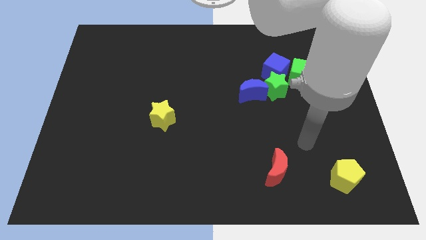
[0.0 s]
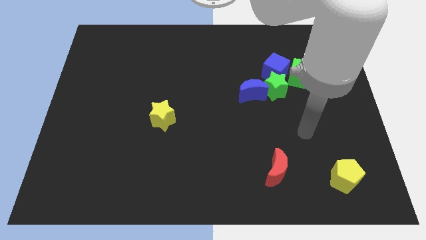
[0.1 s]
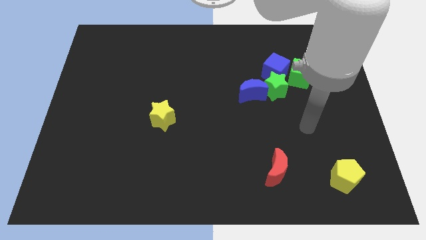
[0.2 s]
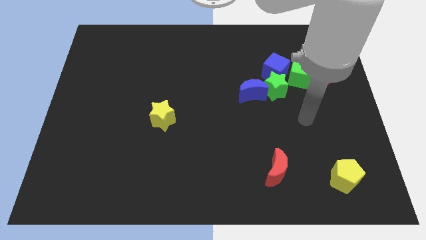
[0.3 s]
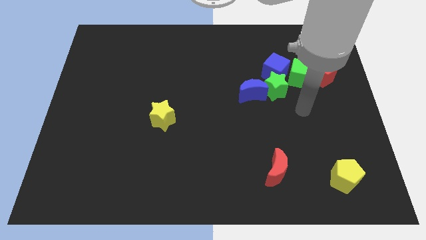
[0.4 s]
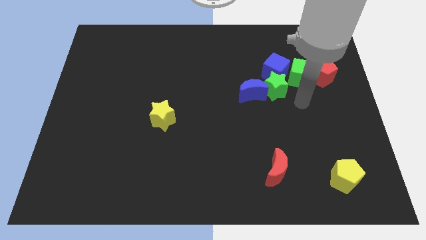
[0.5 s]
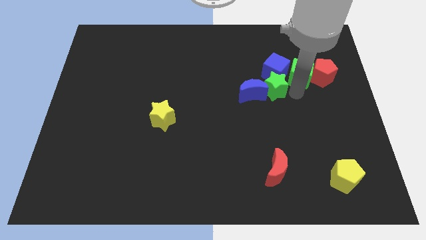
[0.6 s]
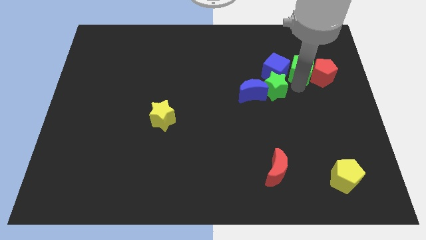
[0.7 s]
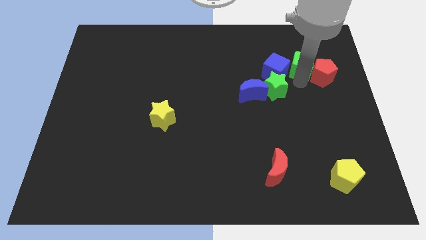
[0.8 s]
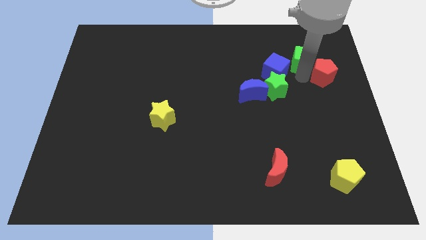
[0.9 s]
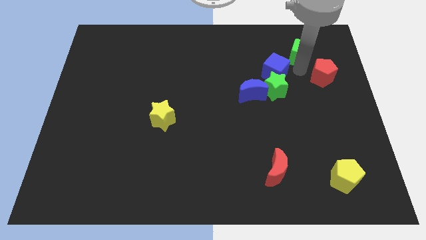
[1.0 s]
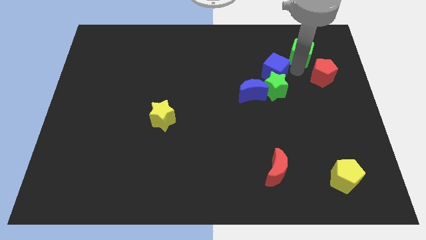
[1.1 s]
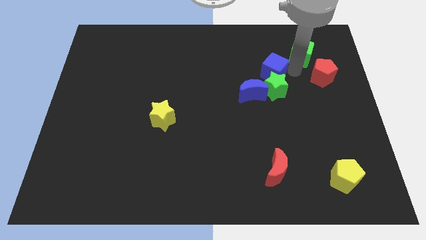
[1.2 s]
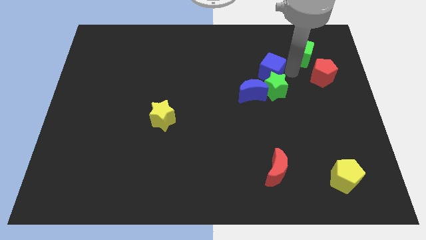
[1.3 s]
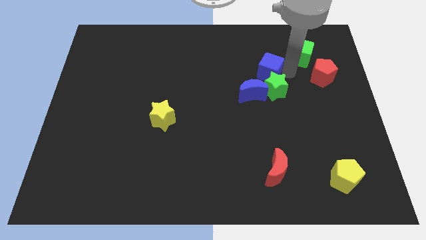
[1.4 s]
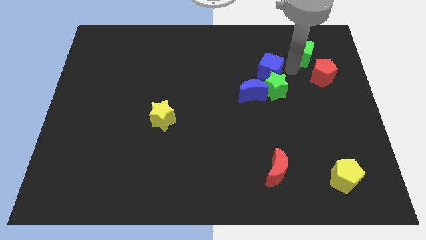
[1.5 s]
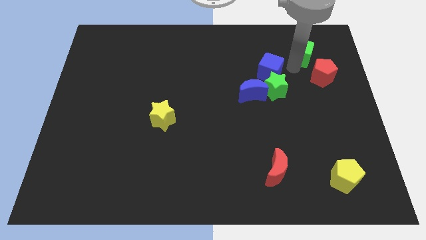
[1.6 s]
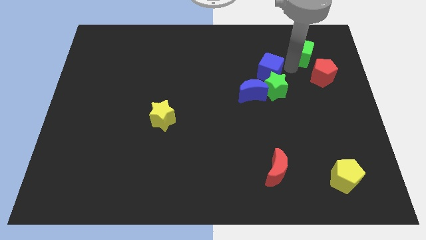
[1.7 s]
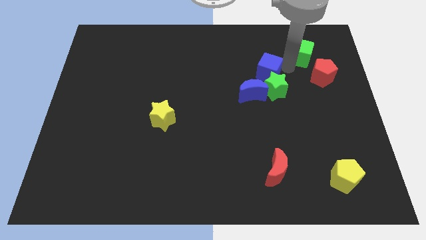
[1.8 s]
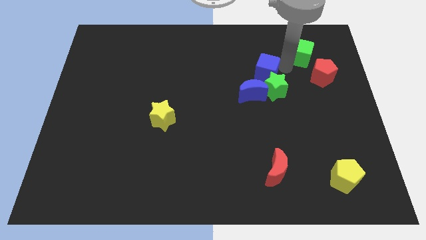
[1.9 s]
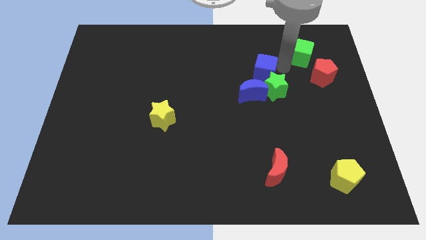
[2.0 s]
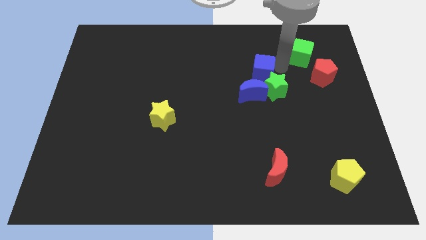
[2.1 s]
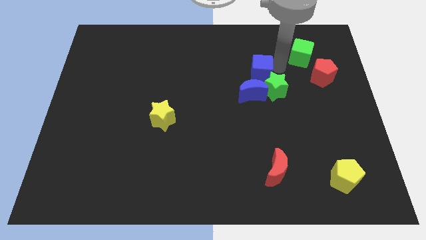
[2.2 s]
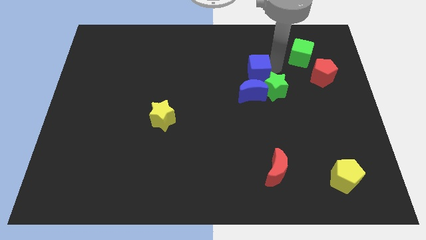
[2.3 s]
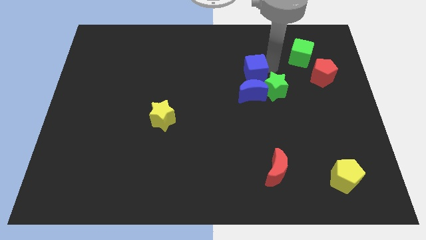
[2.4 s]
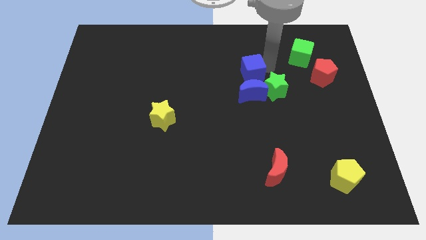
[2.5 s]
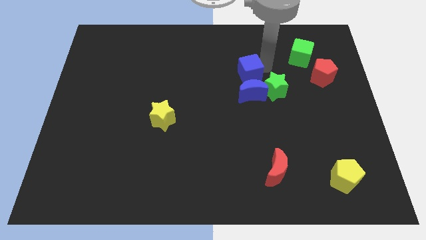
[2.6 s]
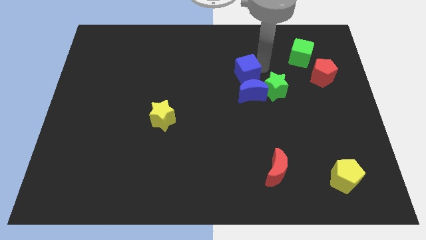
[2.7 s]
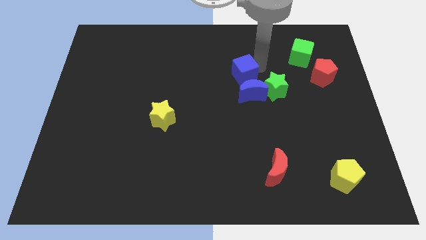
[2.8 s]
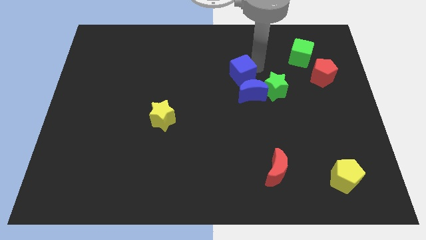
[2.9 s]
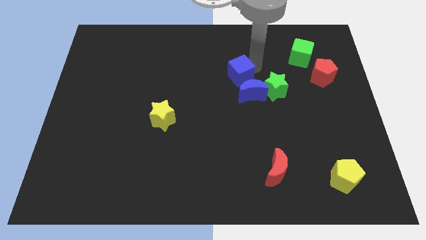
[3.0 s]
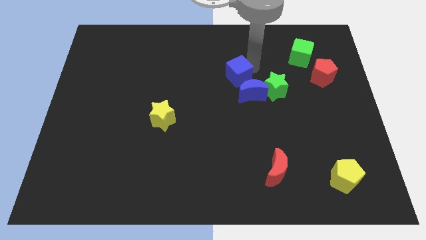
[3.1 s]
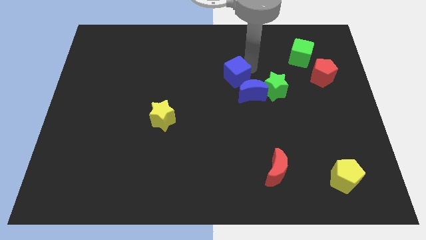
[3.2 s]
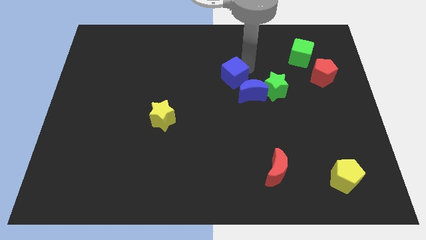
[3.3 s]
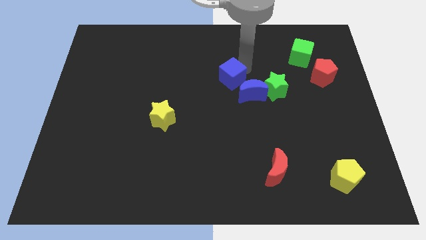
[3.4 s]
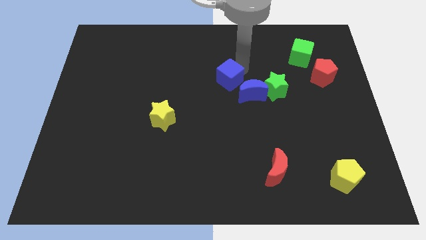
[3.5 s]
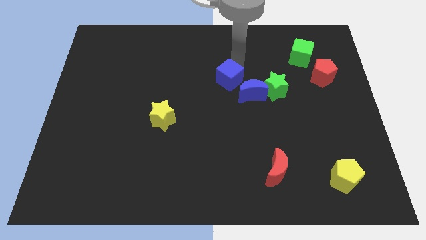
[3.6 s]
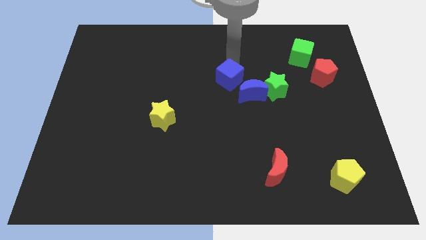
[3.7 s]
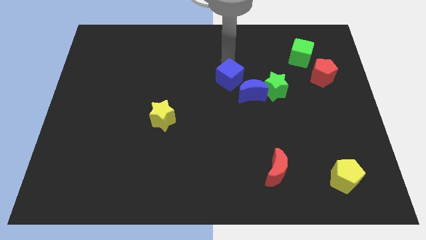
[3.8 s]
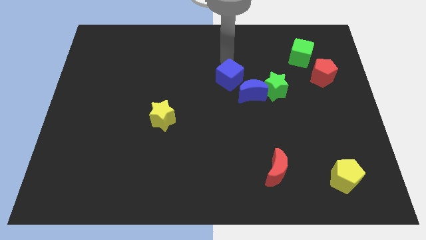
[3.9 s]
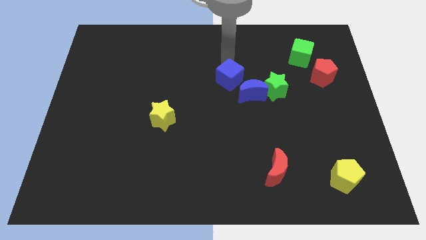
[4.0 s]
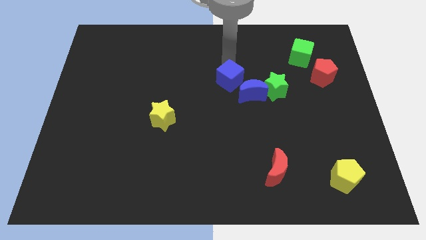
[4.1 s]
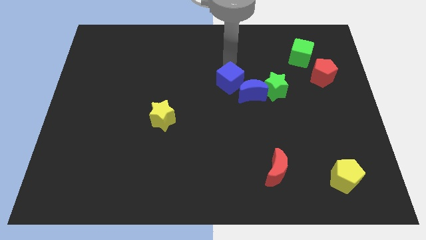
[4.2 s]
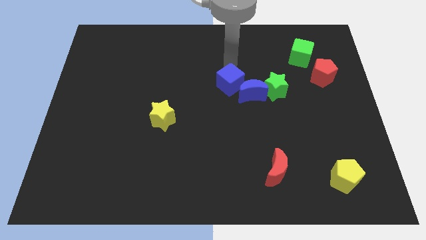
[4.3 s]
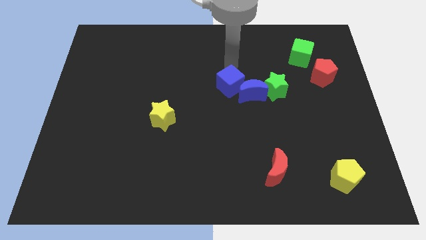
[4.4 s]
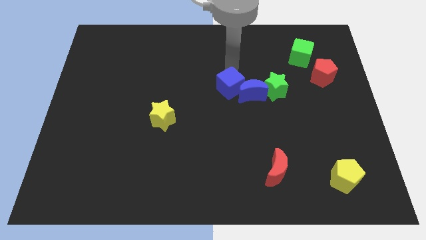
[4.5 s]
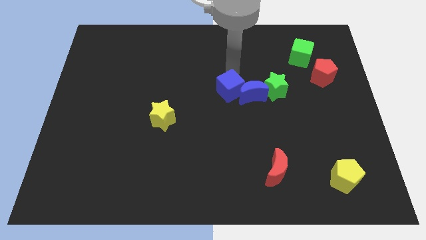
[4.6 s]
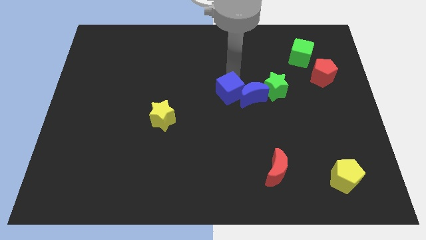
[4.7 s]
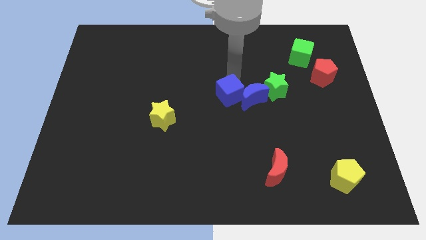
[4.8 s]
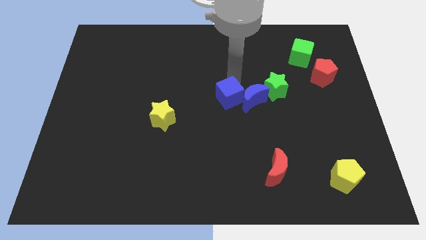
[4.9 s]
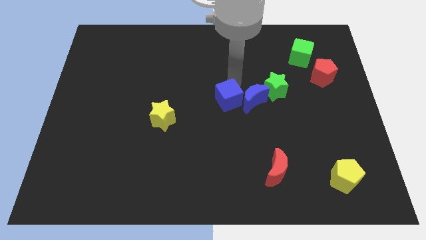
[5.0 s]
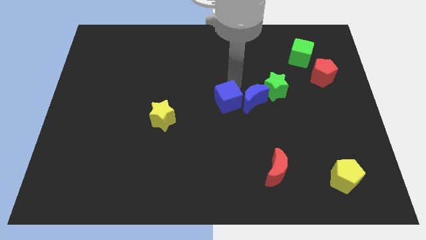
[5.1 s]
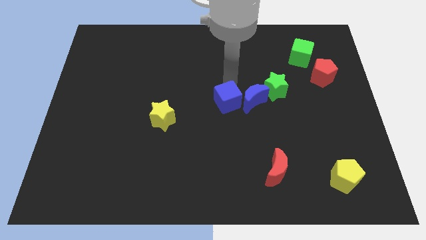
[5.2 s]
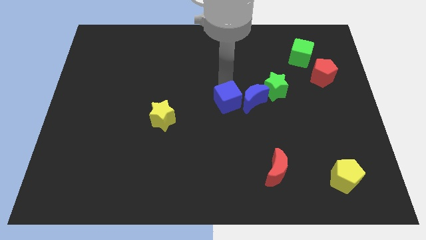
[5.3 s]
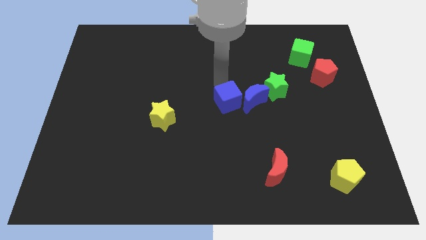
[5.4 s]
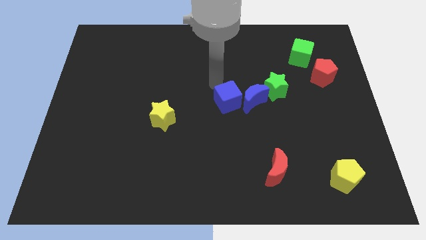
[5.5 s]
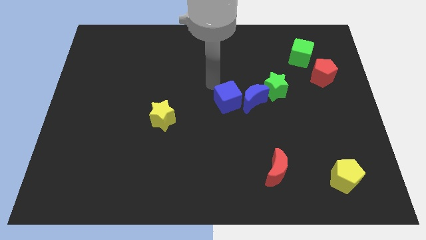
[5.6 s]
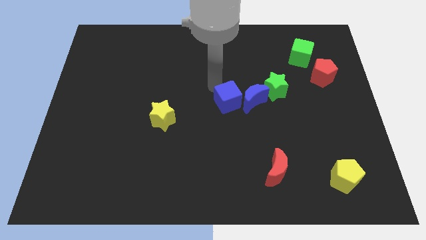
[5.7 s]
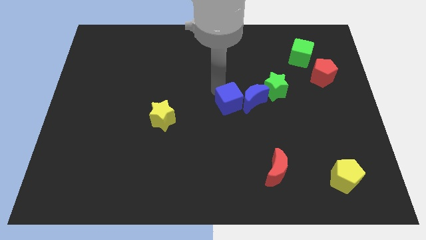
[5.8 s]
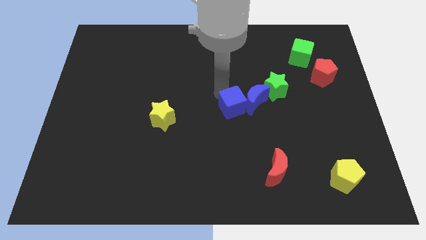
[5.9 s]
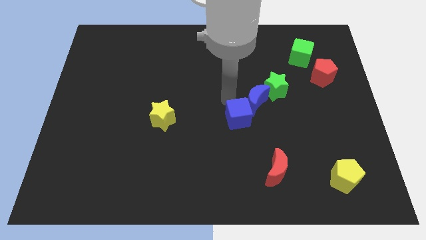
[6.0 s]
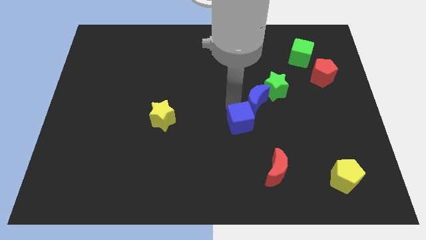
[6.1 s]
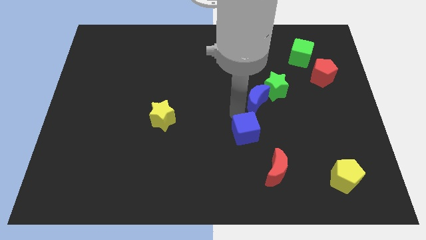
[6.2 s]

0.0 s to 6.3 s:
slide the blue cube to the top left of the red moon

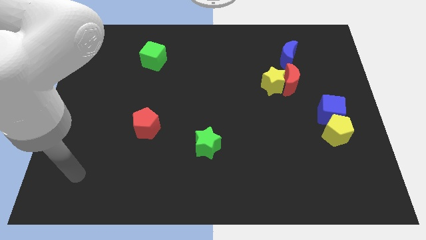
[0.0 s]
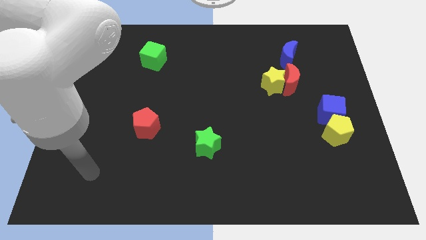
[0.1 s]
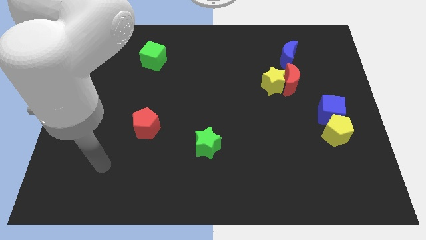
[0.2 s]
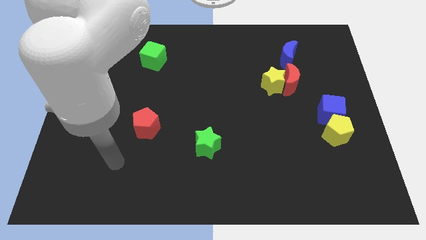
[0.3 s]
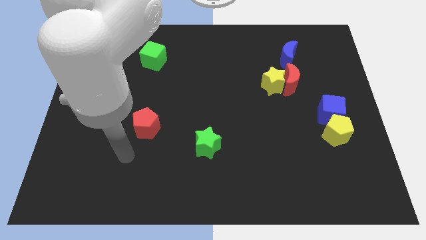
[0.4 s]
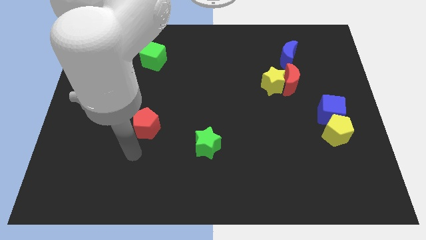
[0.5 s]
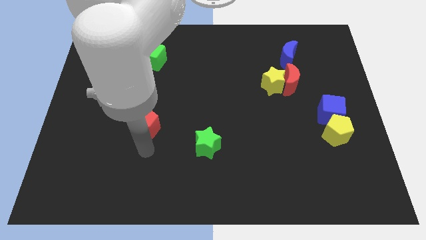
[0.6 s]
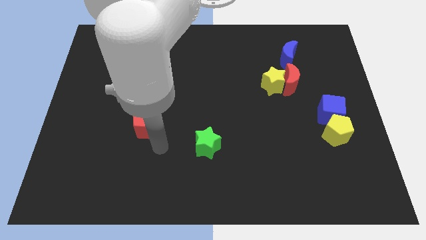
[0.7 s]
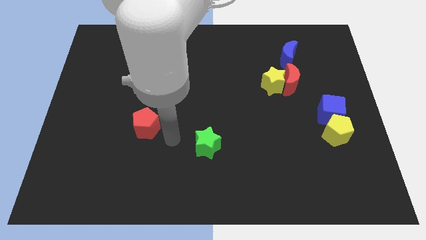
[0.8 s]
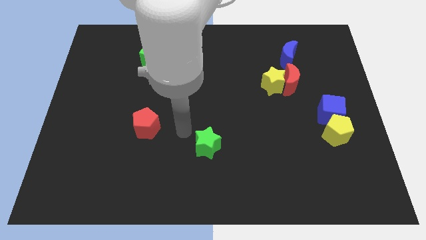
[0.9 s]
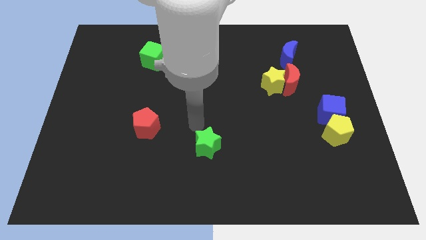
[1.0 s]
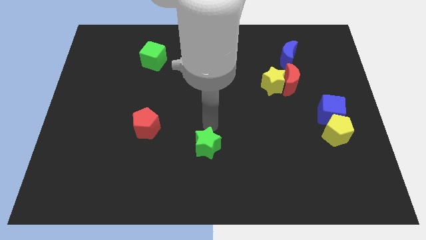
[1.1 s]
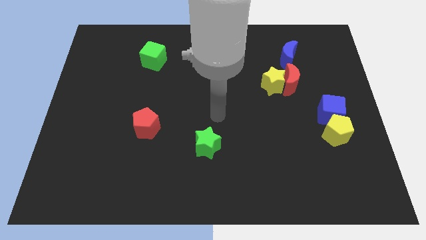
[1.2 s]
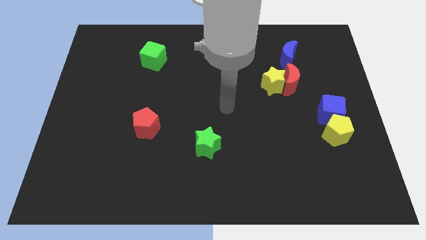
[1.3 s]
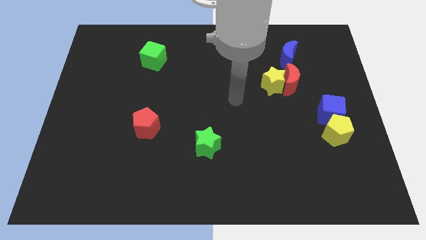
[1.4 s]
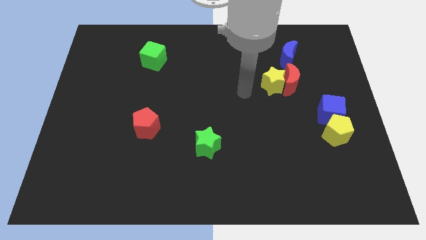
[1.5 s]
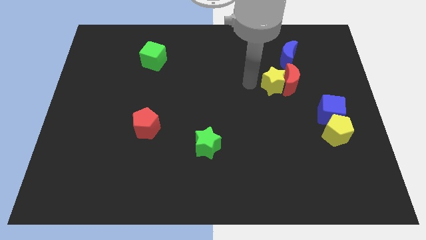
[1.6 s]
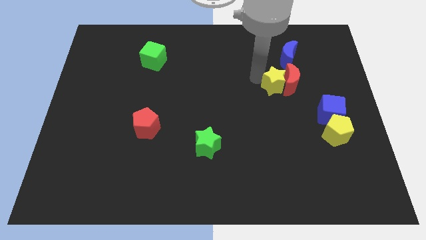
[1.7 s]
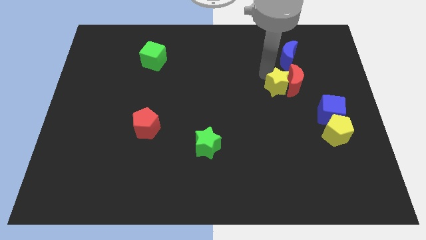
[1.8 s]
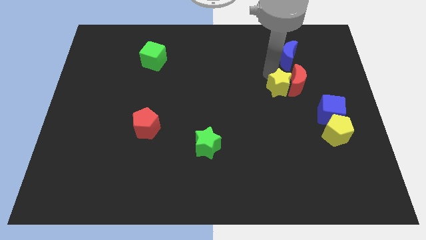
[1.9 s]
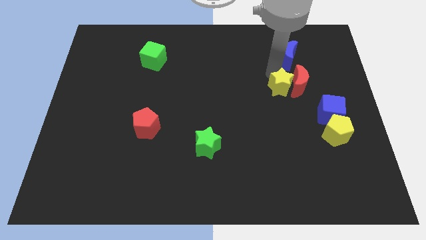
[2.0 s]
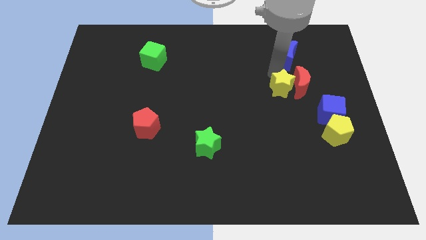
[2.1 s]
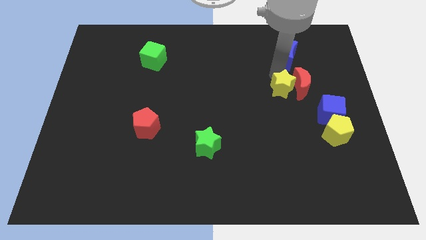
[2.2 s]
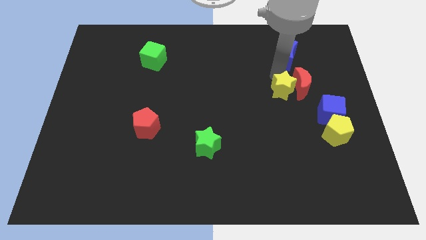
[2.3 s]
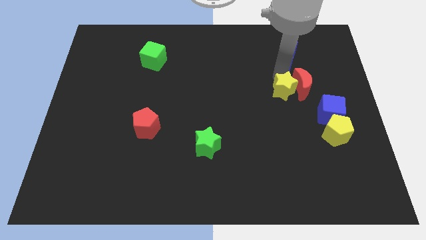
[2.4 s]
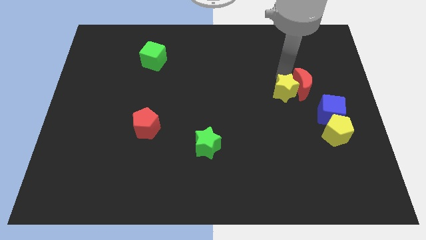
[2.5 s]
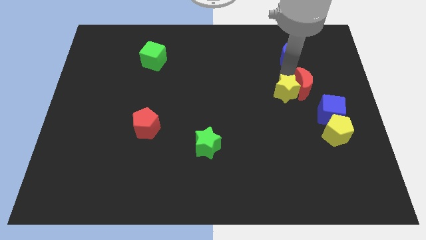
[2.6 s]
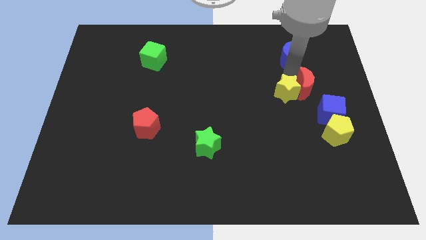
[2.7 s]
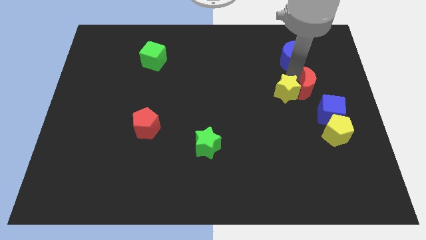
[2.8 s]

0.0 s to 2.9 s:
put the red moon to the top of the yellow pentagon
